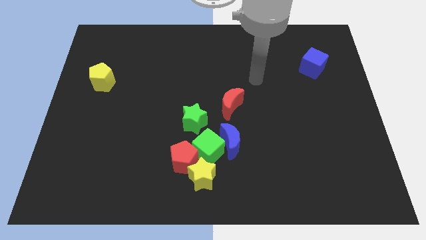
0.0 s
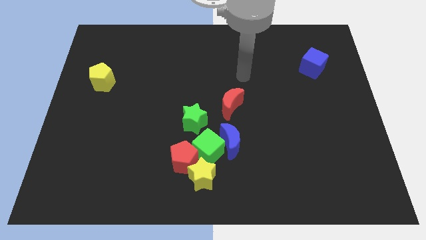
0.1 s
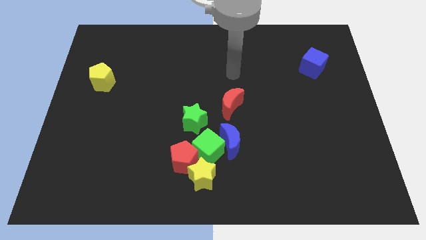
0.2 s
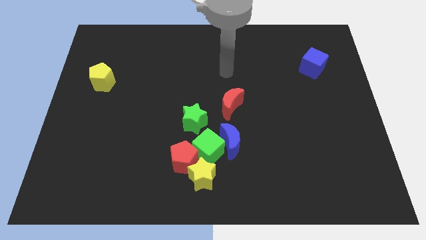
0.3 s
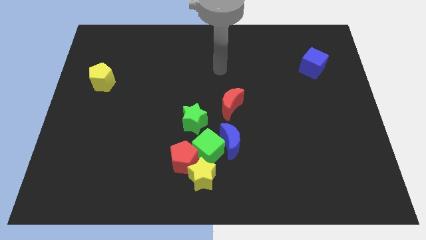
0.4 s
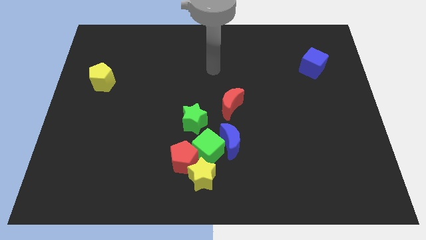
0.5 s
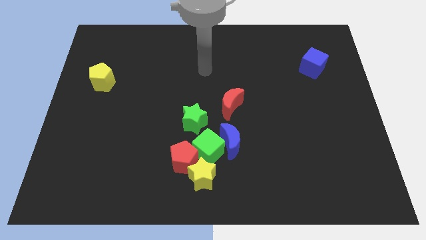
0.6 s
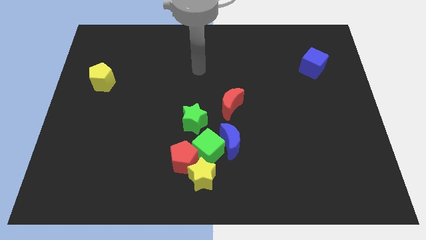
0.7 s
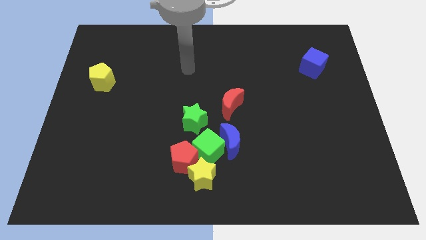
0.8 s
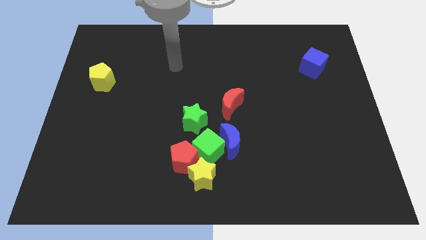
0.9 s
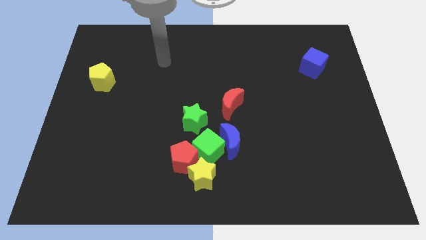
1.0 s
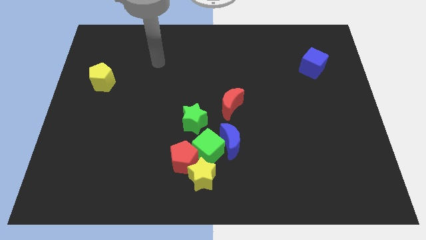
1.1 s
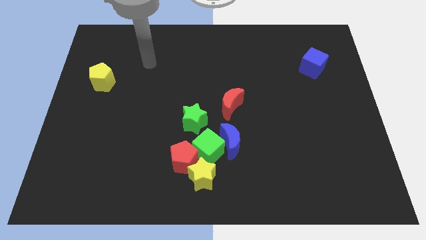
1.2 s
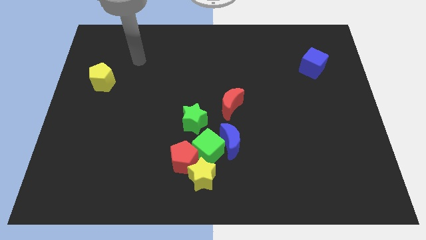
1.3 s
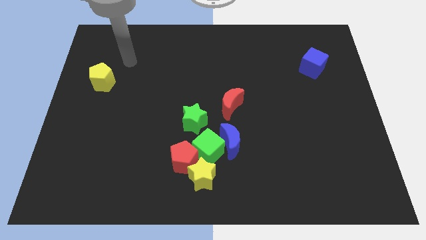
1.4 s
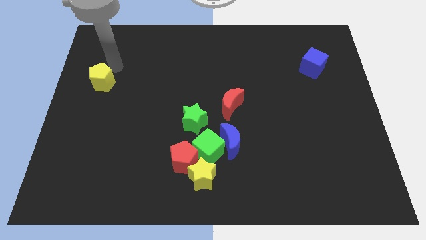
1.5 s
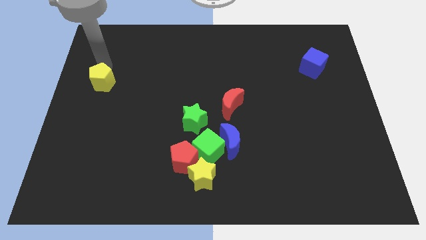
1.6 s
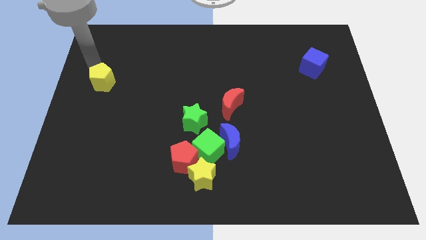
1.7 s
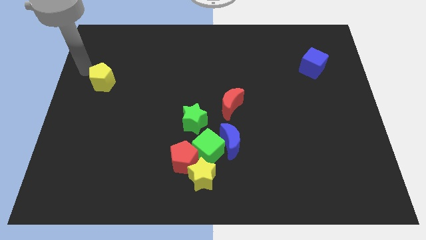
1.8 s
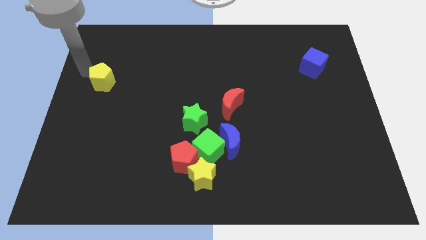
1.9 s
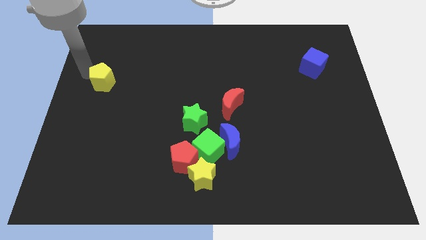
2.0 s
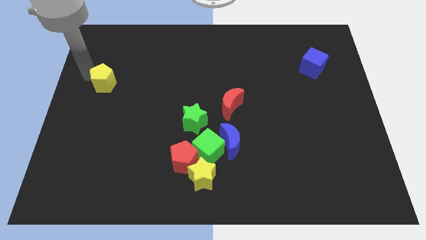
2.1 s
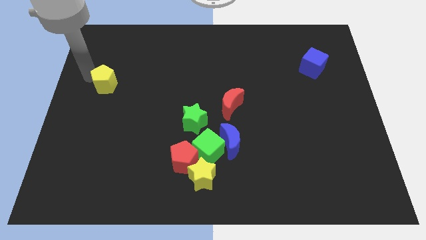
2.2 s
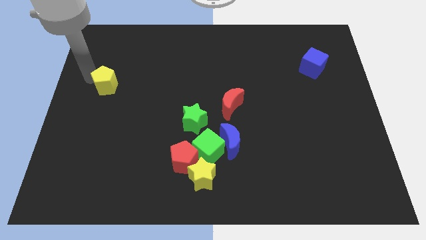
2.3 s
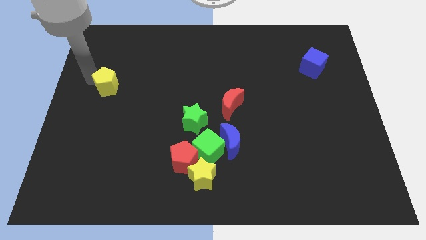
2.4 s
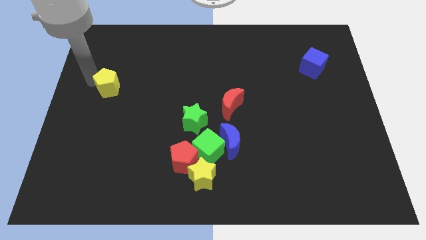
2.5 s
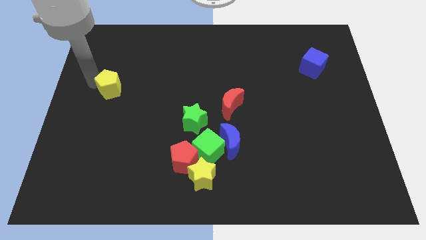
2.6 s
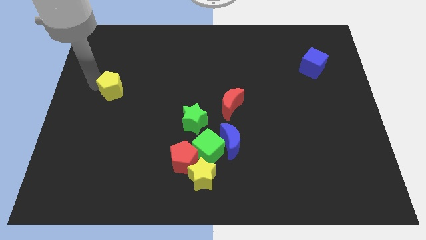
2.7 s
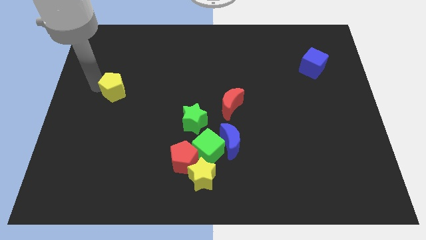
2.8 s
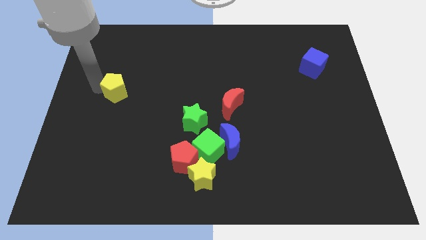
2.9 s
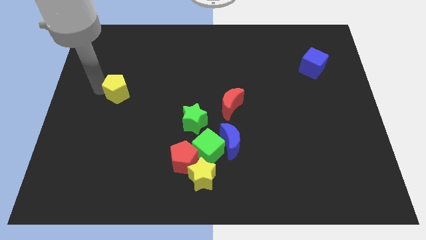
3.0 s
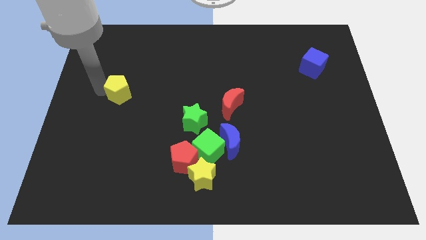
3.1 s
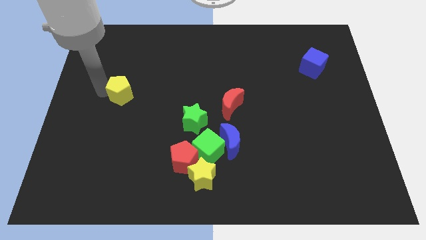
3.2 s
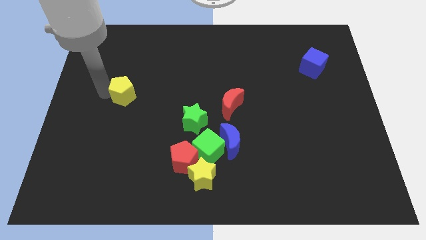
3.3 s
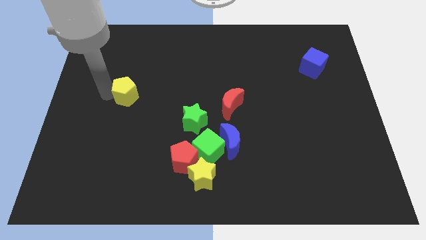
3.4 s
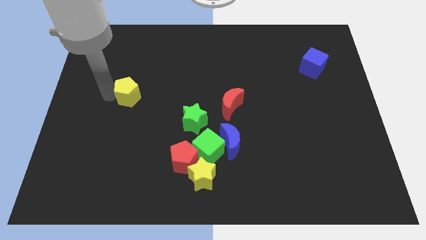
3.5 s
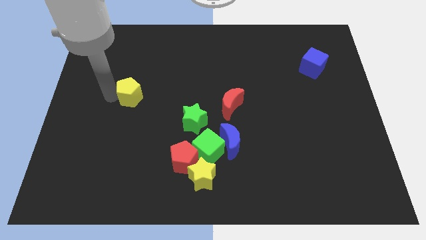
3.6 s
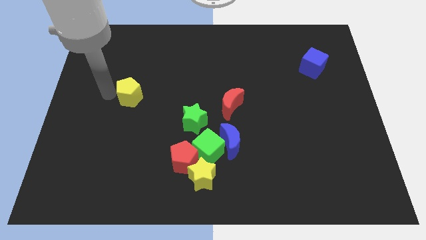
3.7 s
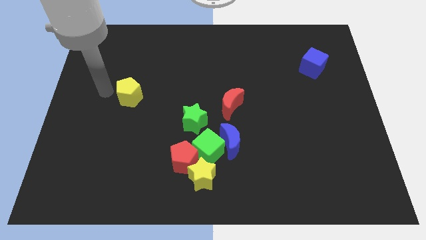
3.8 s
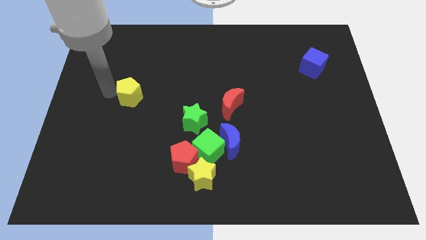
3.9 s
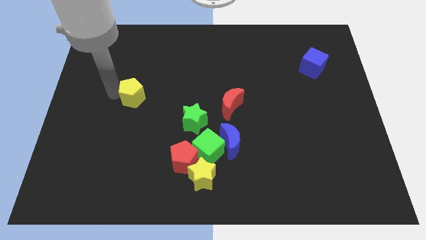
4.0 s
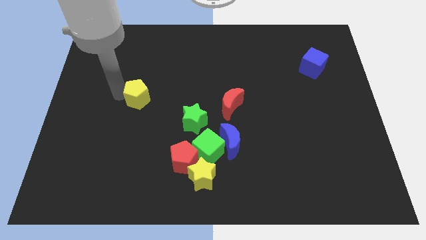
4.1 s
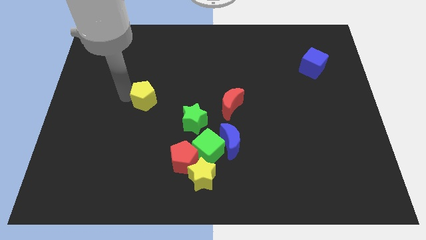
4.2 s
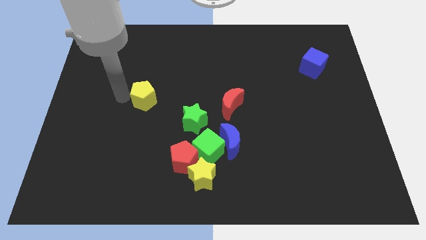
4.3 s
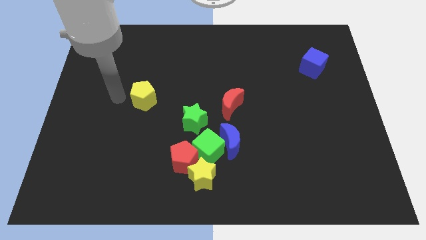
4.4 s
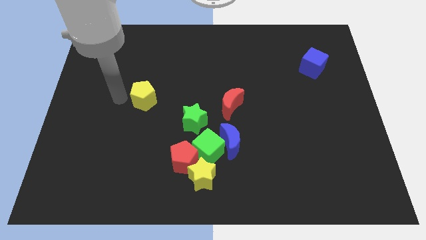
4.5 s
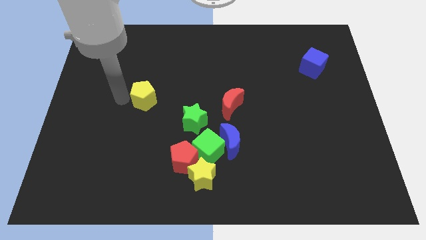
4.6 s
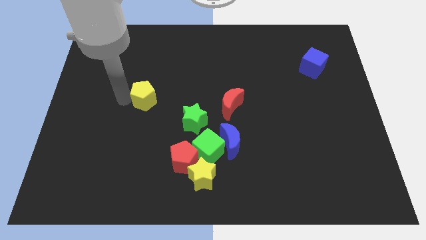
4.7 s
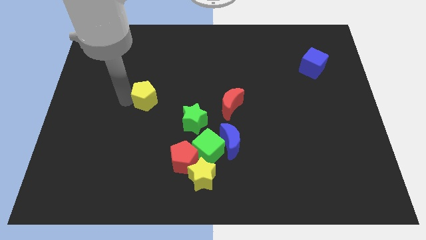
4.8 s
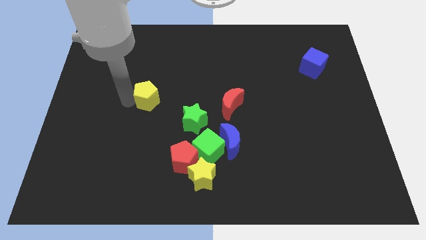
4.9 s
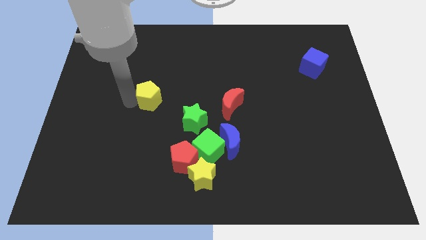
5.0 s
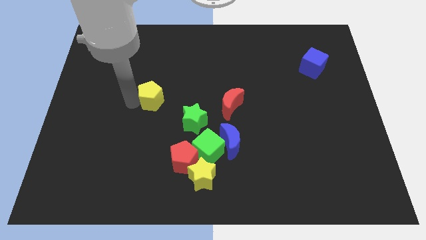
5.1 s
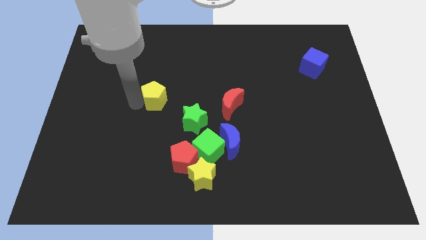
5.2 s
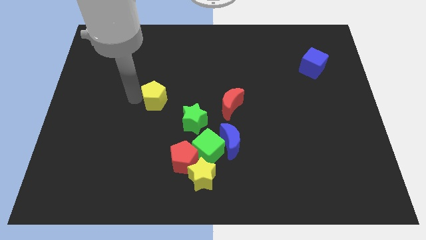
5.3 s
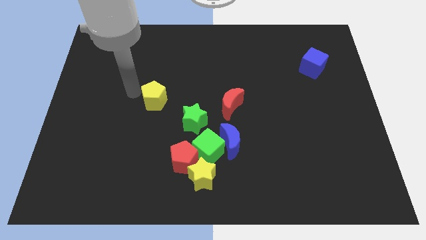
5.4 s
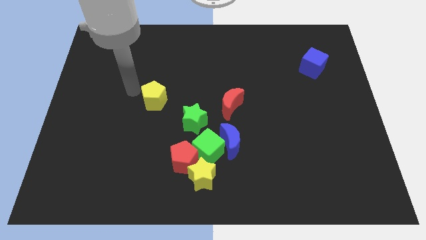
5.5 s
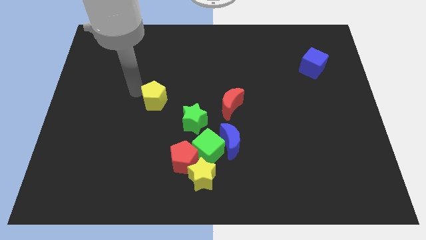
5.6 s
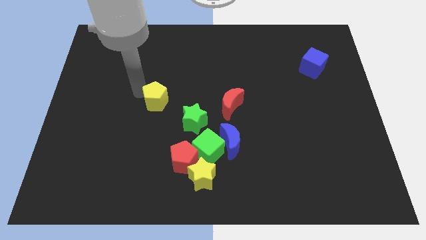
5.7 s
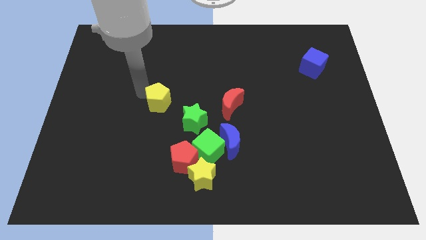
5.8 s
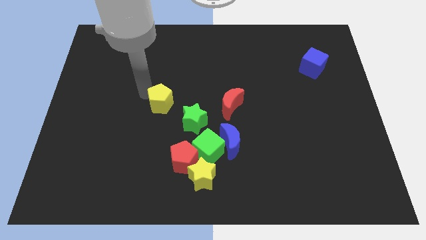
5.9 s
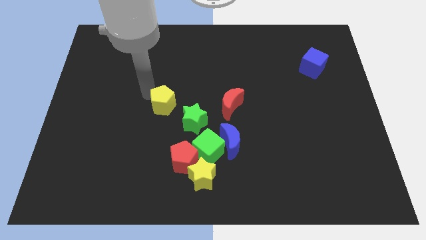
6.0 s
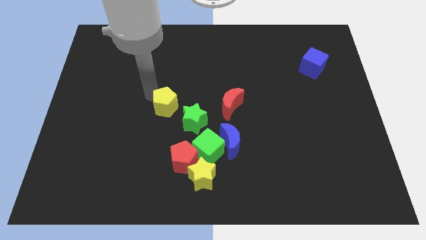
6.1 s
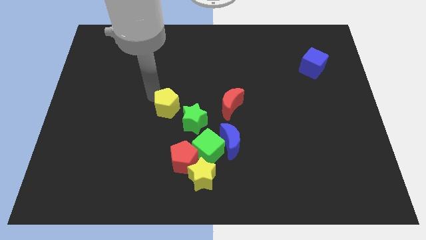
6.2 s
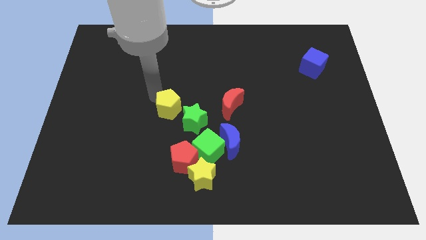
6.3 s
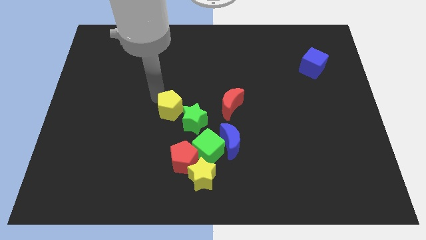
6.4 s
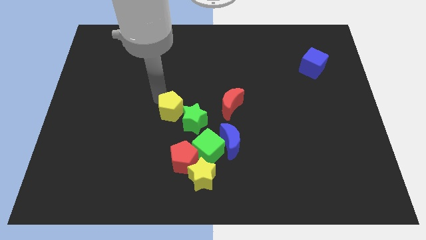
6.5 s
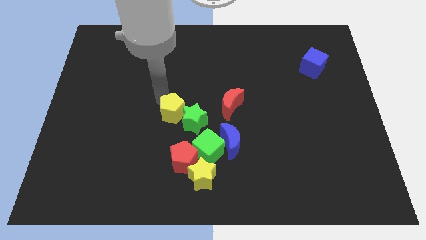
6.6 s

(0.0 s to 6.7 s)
put the yellow pentagon to the green star

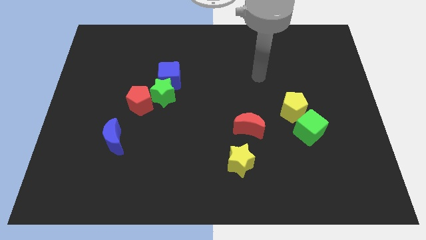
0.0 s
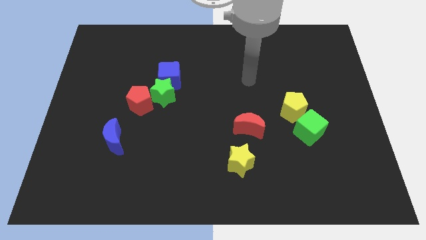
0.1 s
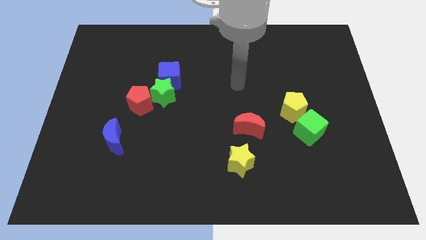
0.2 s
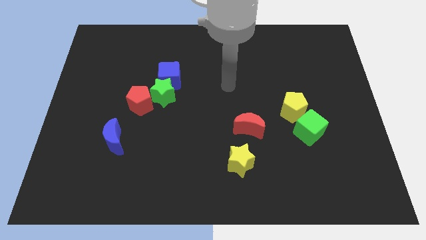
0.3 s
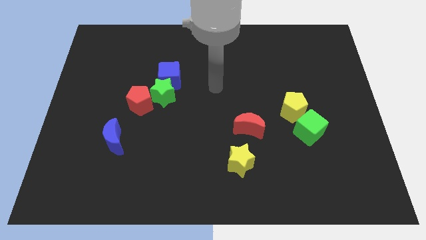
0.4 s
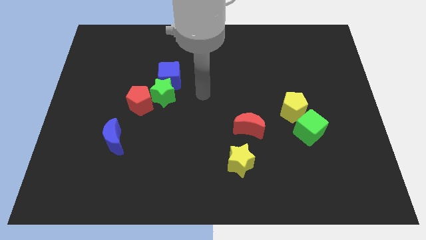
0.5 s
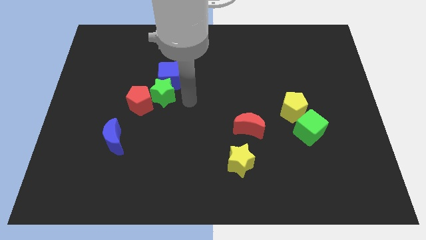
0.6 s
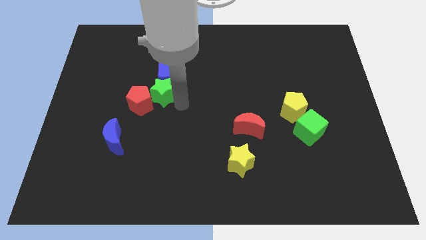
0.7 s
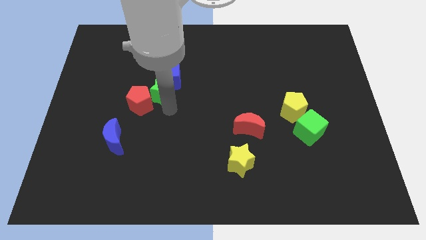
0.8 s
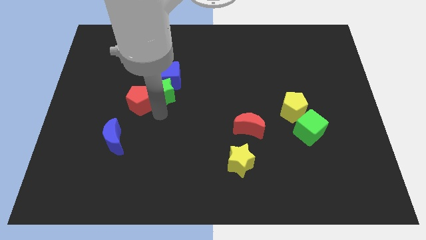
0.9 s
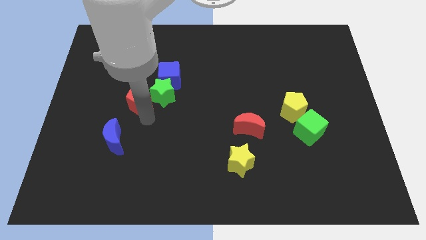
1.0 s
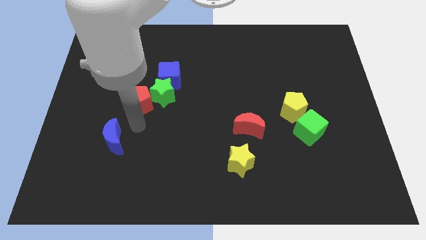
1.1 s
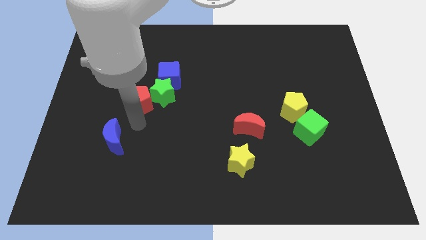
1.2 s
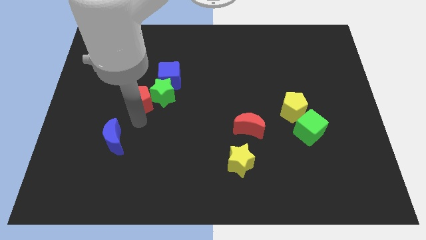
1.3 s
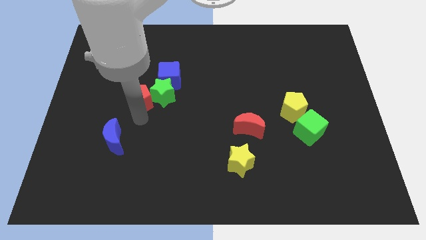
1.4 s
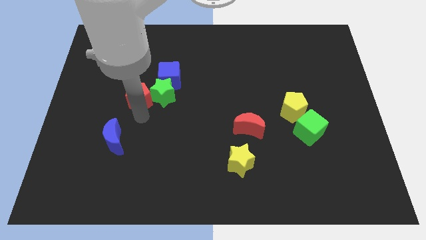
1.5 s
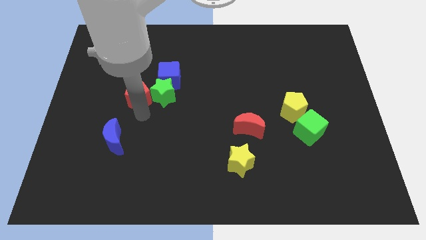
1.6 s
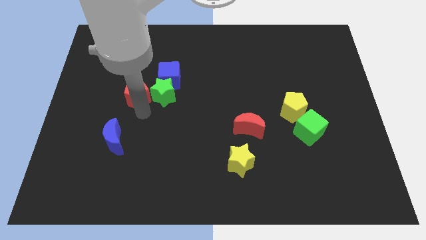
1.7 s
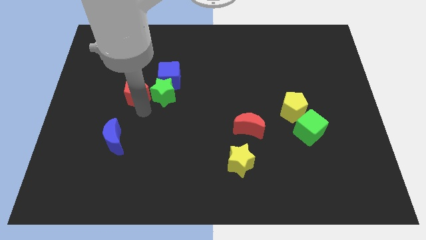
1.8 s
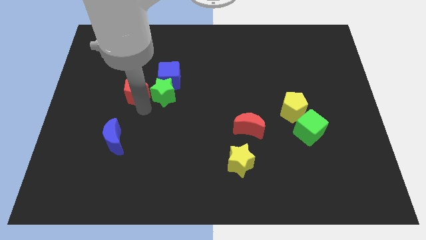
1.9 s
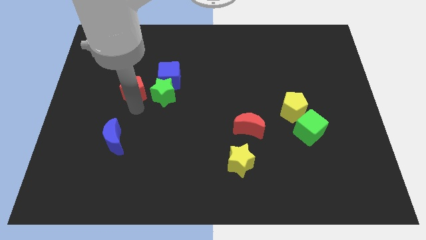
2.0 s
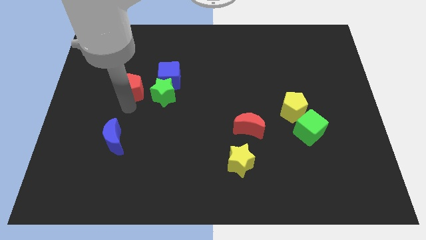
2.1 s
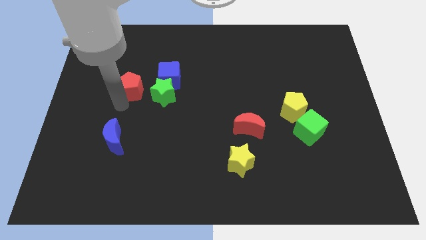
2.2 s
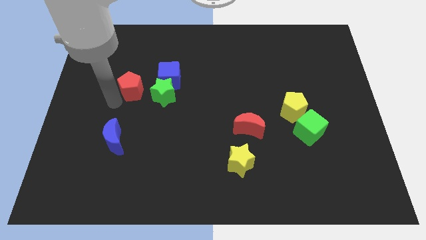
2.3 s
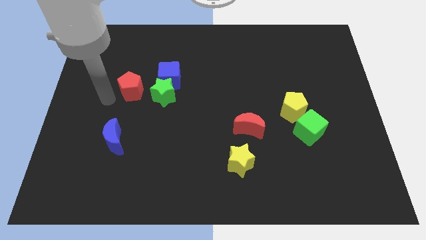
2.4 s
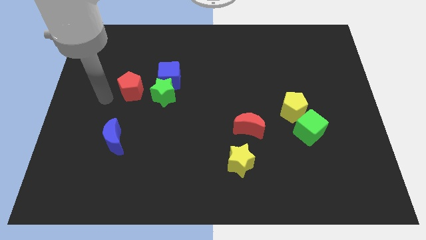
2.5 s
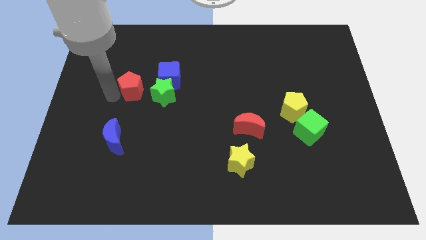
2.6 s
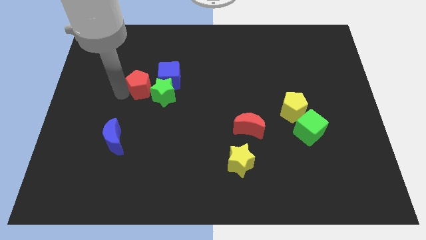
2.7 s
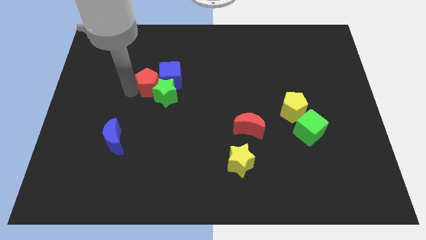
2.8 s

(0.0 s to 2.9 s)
put the red pentagon close to the blue cube
